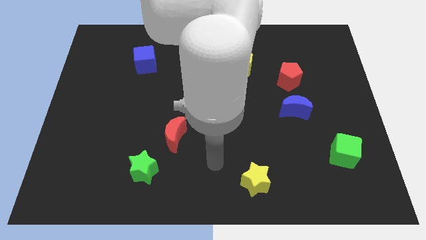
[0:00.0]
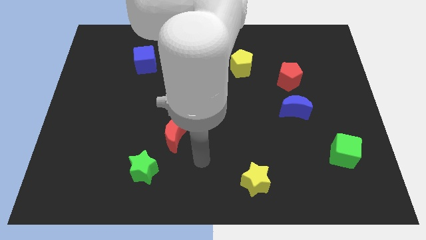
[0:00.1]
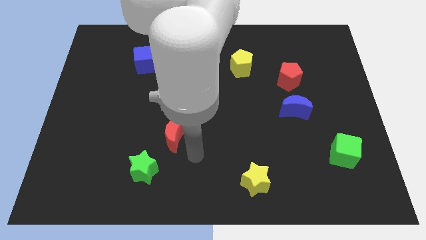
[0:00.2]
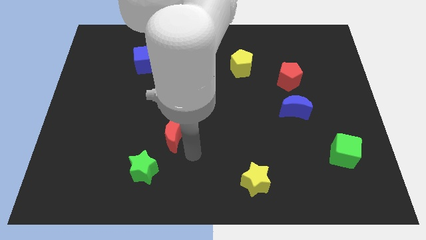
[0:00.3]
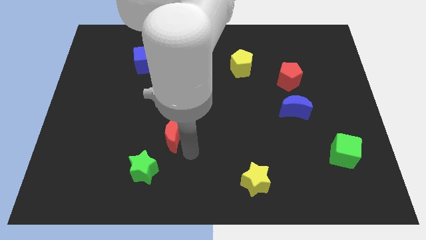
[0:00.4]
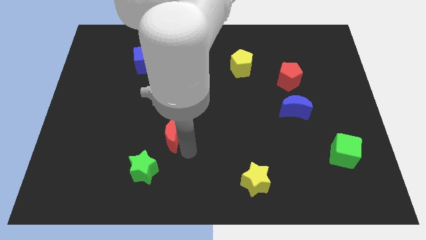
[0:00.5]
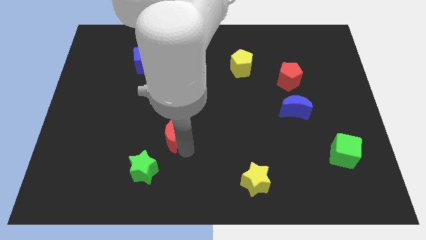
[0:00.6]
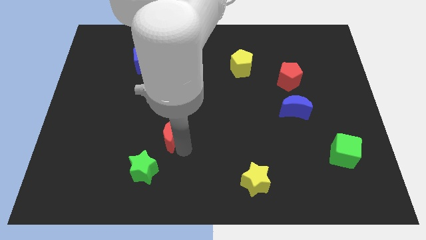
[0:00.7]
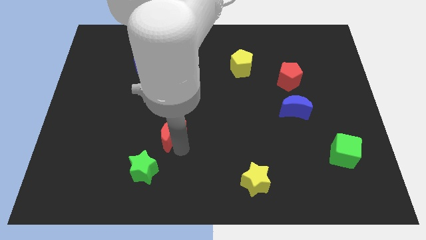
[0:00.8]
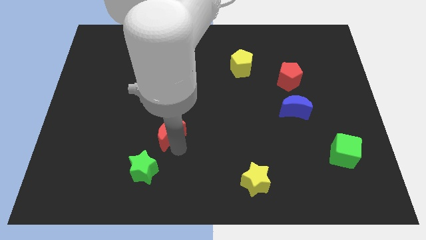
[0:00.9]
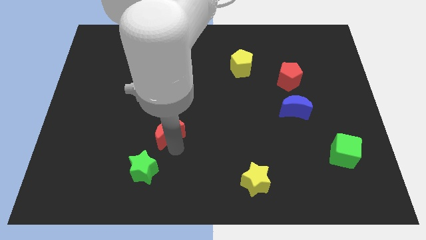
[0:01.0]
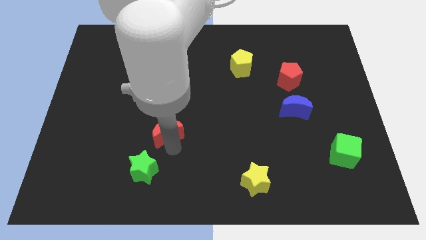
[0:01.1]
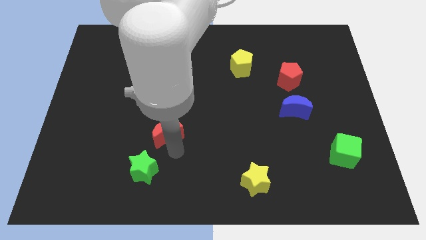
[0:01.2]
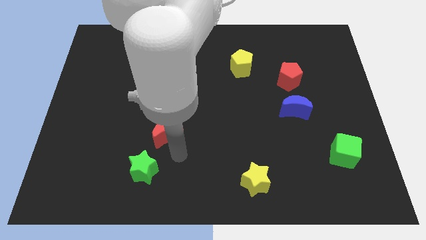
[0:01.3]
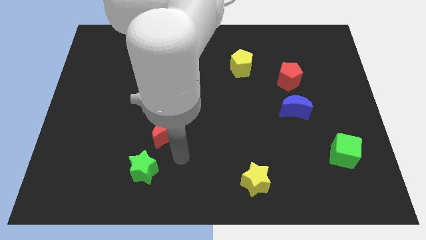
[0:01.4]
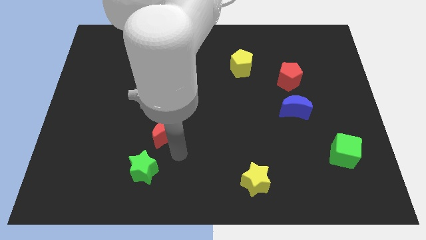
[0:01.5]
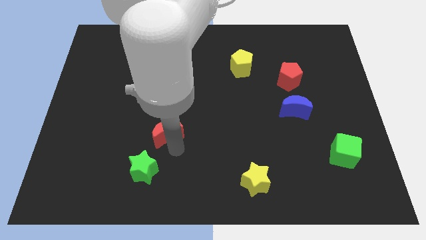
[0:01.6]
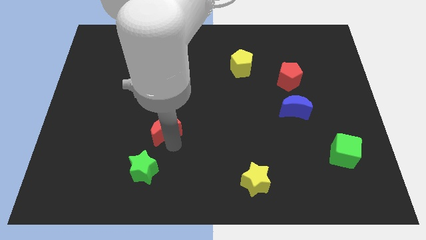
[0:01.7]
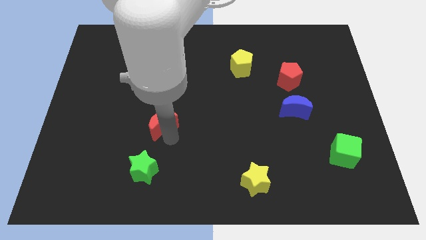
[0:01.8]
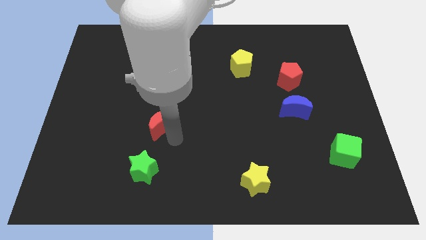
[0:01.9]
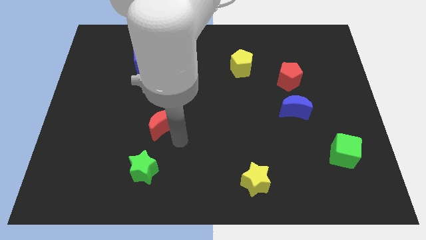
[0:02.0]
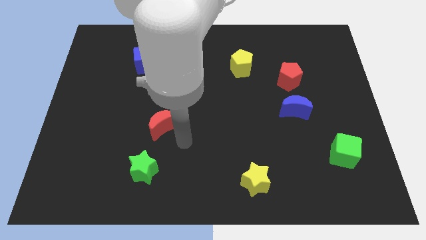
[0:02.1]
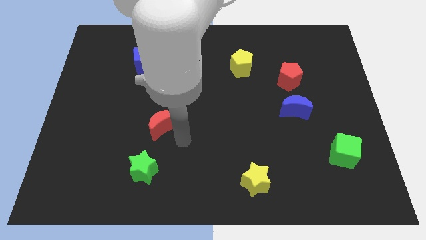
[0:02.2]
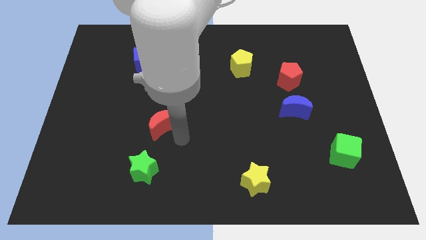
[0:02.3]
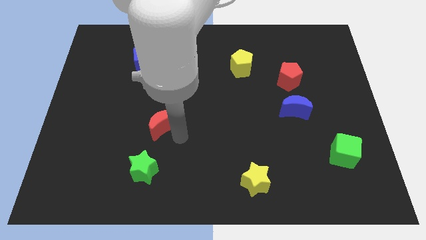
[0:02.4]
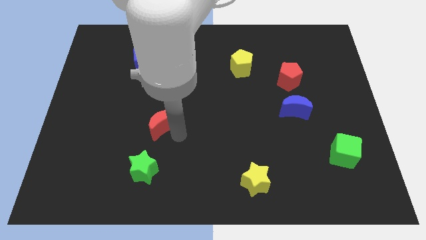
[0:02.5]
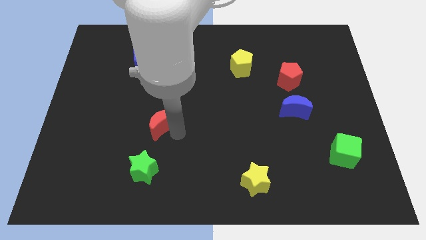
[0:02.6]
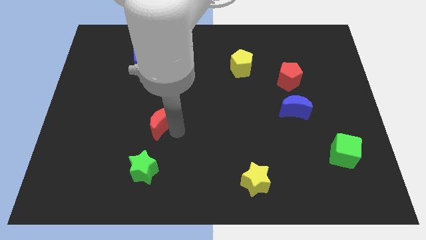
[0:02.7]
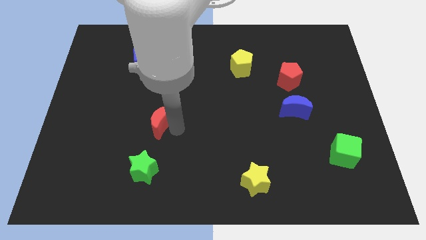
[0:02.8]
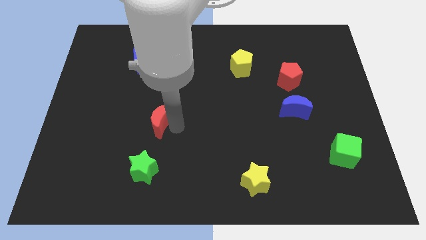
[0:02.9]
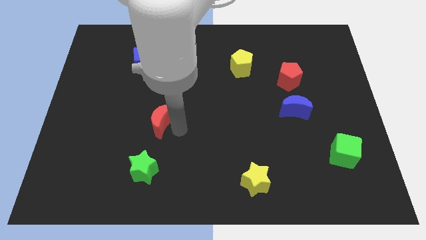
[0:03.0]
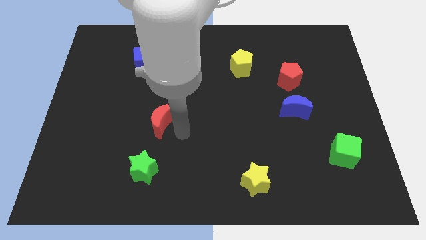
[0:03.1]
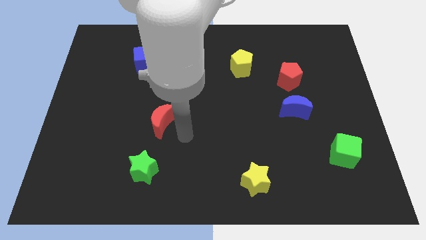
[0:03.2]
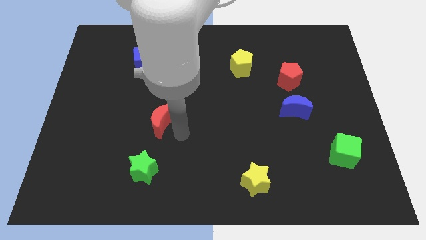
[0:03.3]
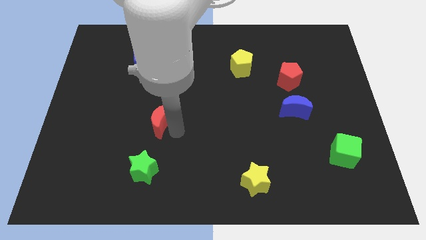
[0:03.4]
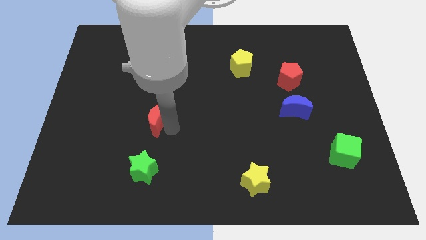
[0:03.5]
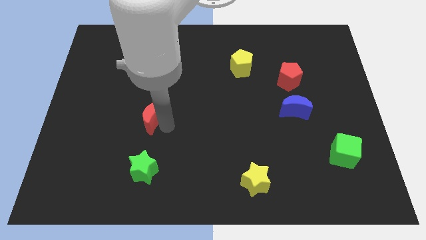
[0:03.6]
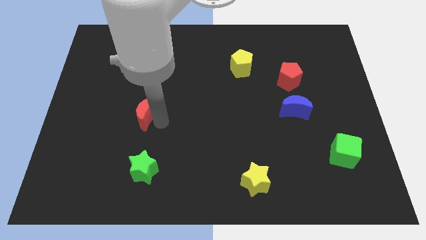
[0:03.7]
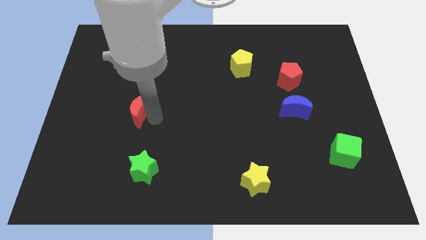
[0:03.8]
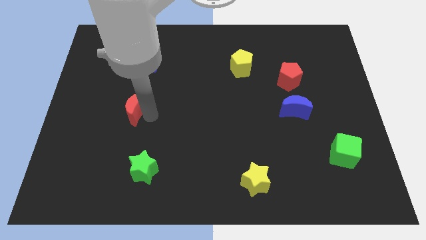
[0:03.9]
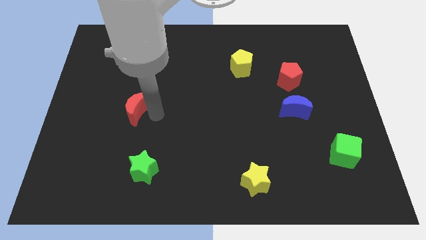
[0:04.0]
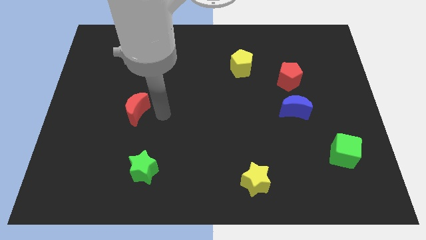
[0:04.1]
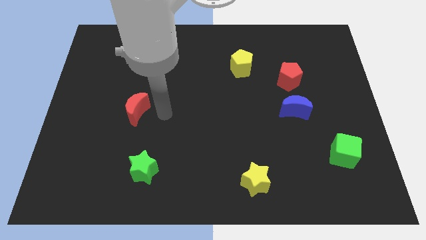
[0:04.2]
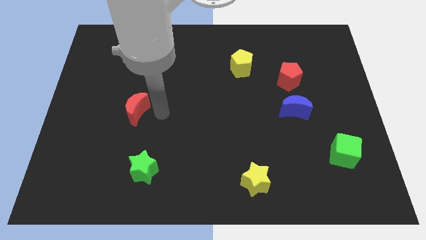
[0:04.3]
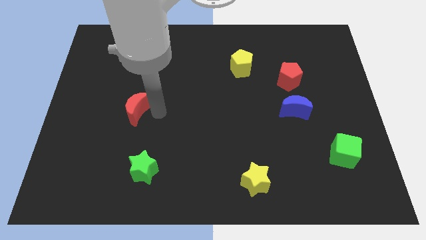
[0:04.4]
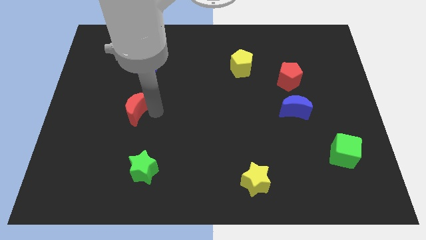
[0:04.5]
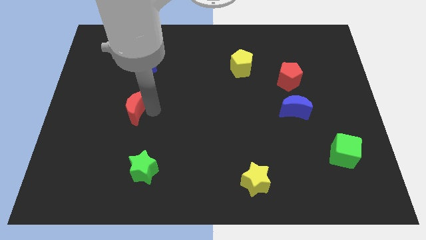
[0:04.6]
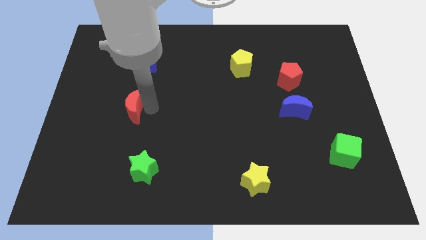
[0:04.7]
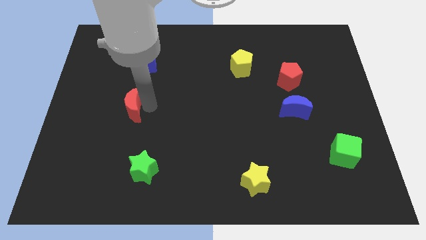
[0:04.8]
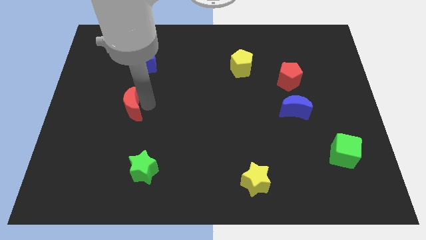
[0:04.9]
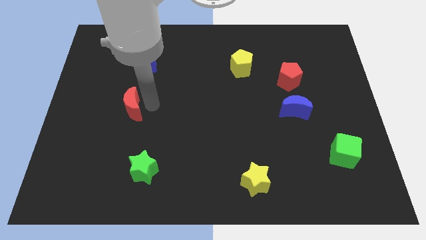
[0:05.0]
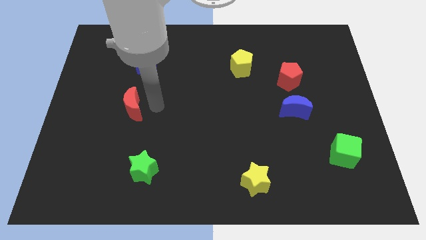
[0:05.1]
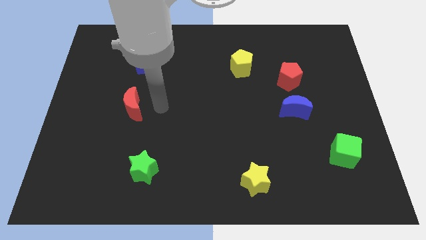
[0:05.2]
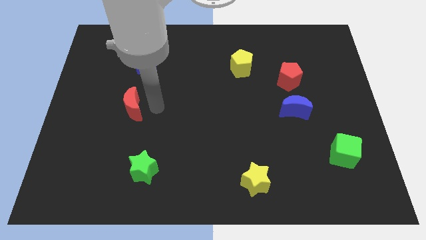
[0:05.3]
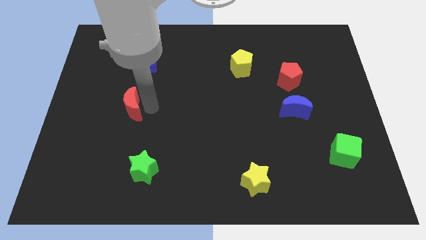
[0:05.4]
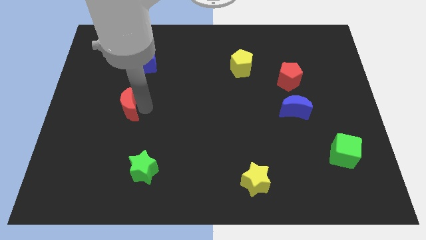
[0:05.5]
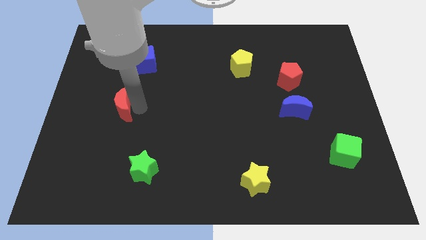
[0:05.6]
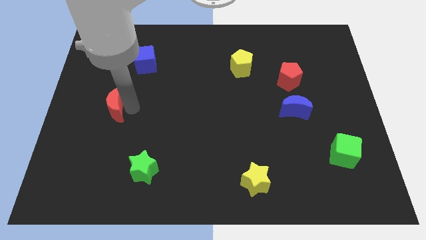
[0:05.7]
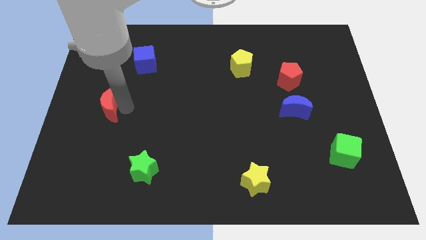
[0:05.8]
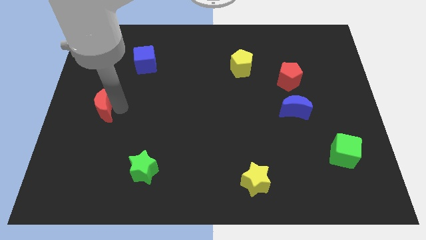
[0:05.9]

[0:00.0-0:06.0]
push the red moon to the left side of the board
